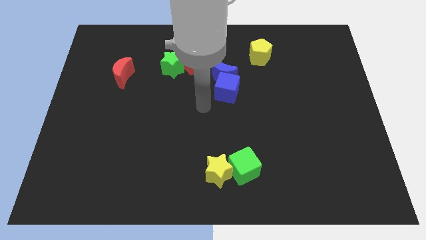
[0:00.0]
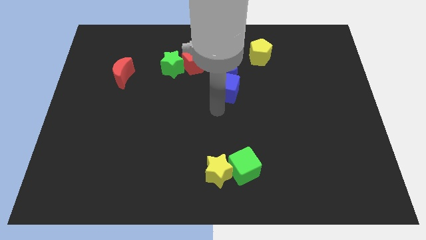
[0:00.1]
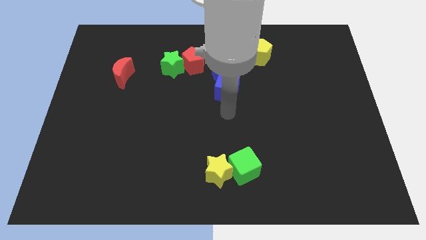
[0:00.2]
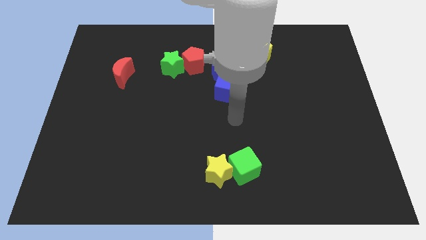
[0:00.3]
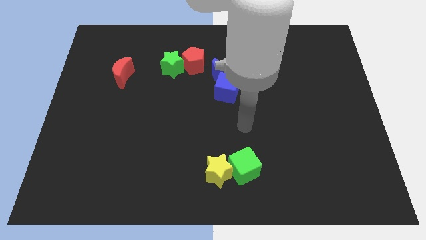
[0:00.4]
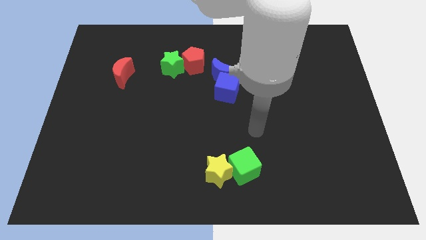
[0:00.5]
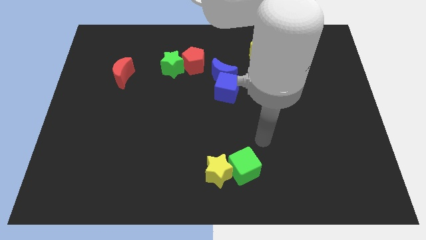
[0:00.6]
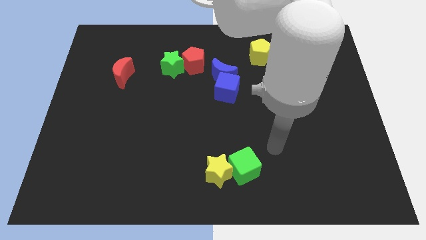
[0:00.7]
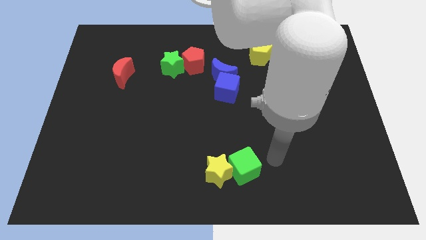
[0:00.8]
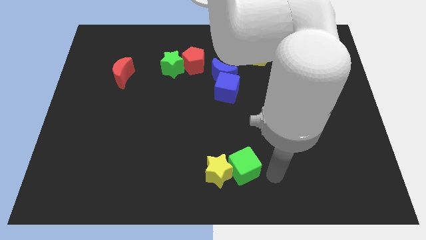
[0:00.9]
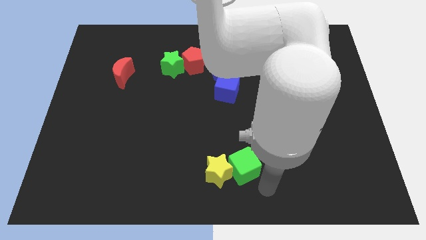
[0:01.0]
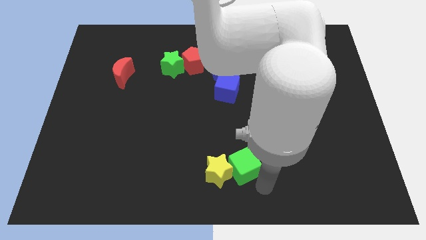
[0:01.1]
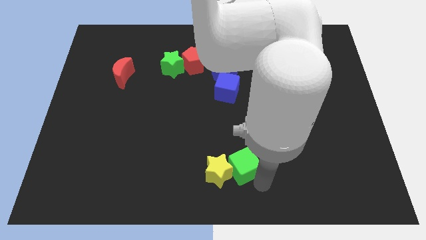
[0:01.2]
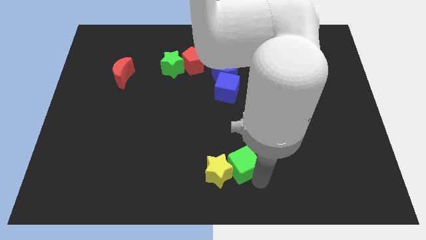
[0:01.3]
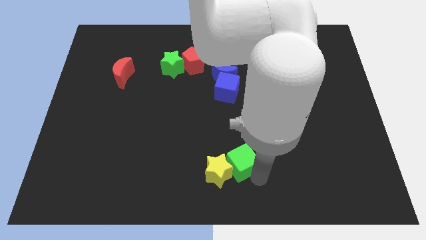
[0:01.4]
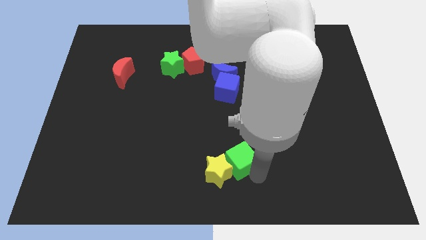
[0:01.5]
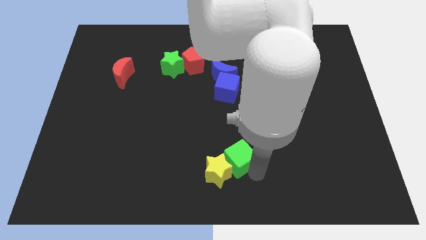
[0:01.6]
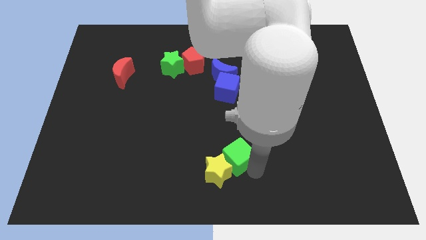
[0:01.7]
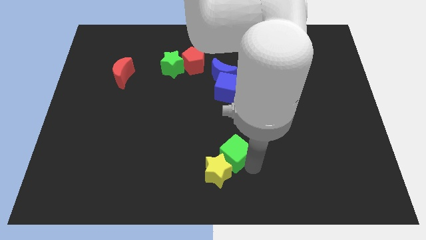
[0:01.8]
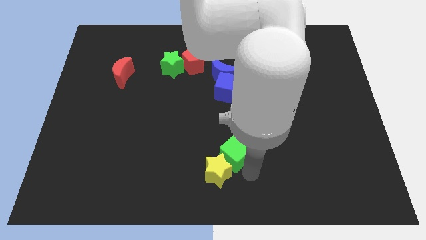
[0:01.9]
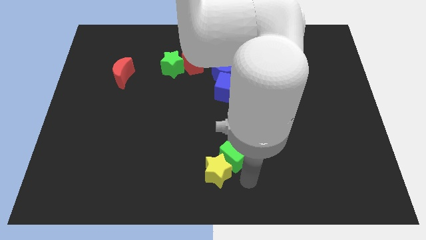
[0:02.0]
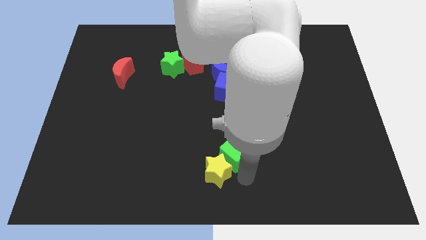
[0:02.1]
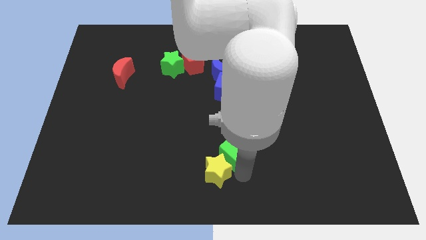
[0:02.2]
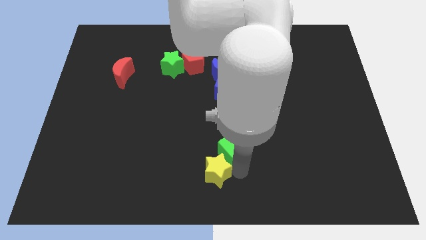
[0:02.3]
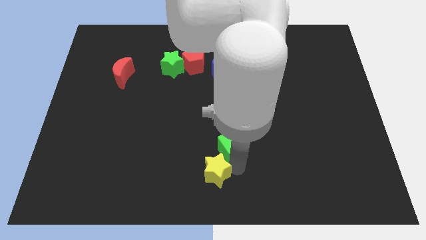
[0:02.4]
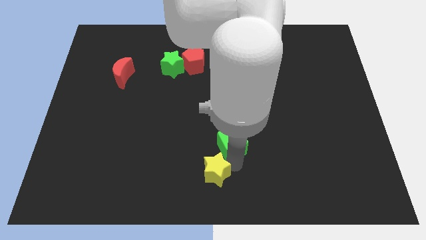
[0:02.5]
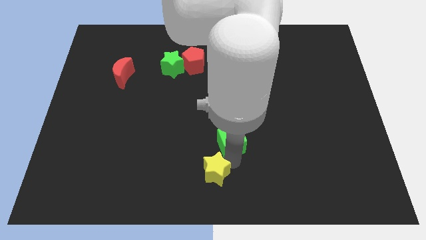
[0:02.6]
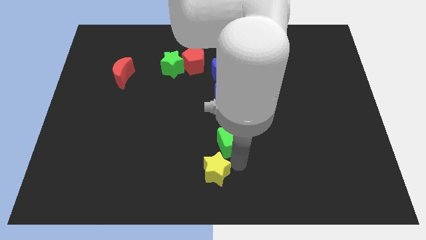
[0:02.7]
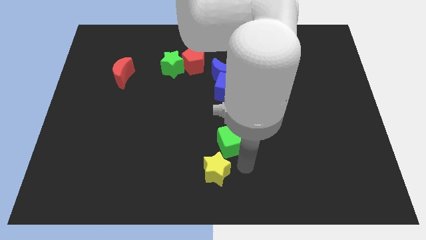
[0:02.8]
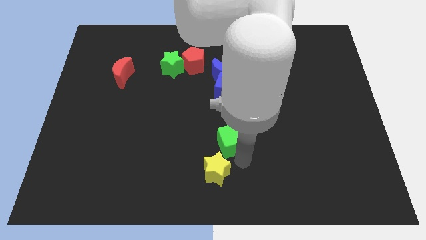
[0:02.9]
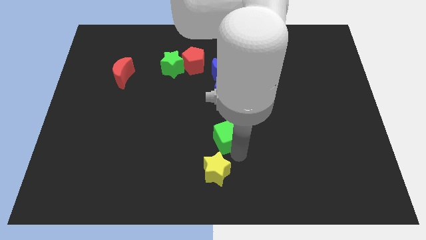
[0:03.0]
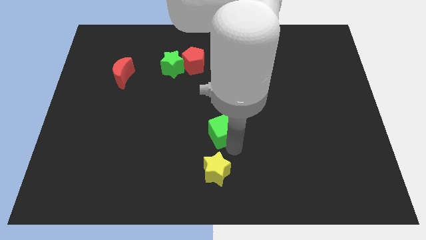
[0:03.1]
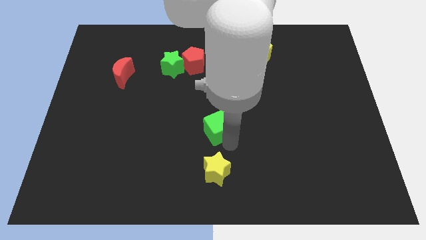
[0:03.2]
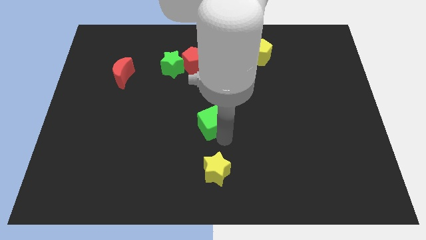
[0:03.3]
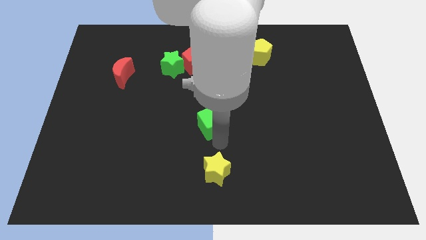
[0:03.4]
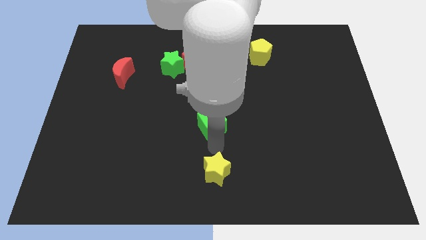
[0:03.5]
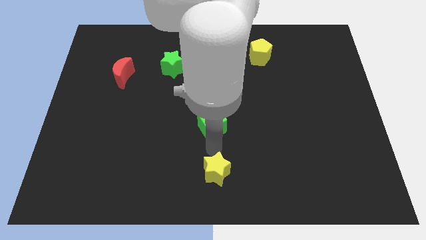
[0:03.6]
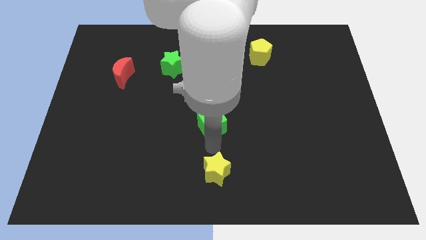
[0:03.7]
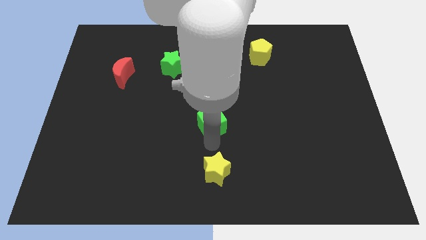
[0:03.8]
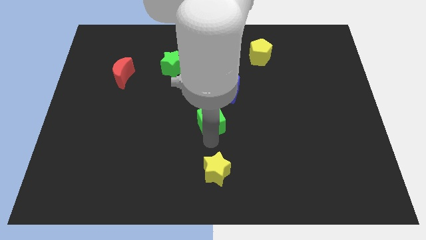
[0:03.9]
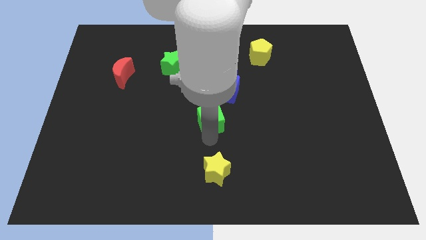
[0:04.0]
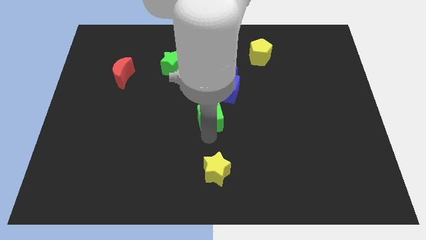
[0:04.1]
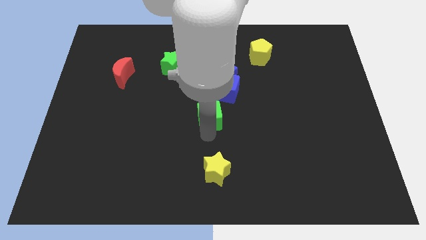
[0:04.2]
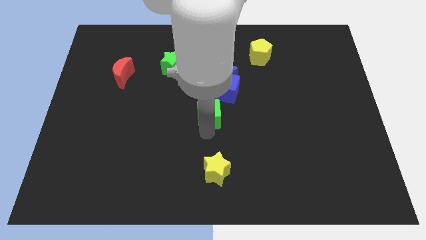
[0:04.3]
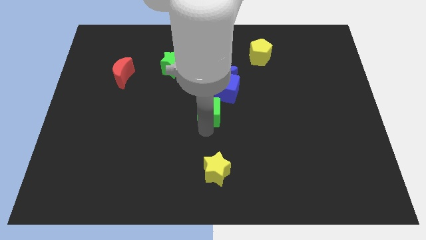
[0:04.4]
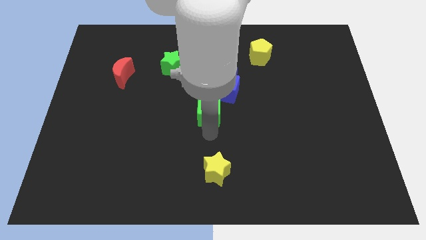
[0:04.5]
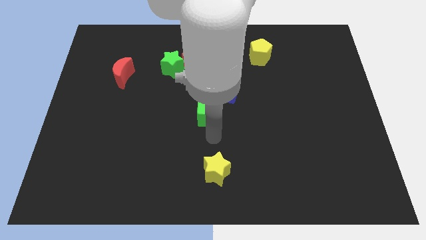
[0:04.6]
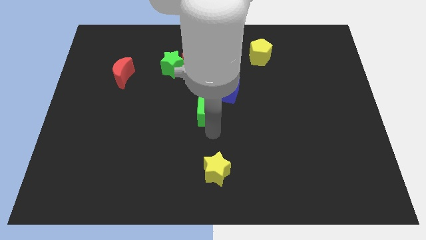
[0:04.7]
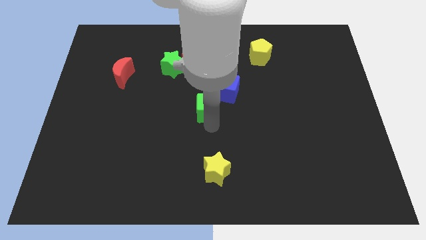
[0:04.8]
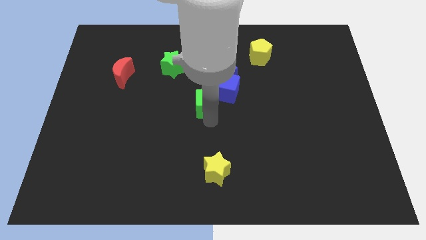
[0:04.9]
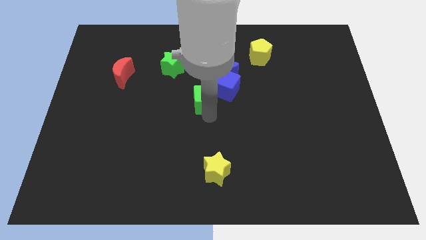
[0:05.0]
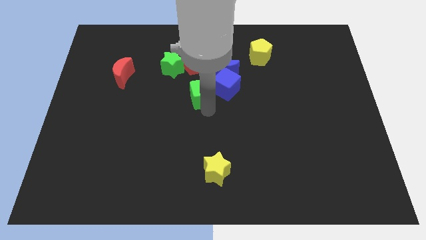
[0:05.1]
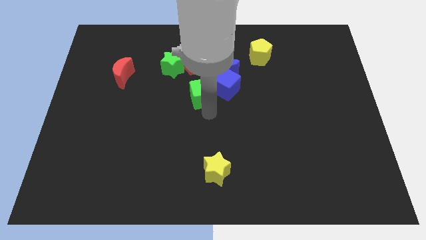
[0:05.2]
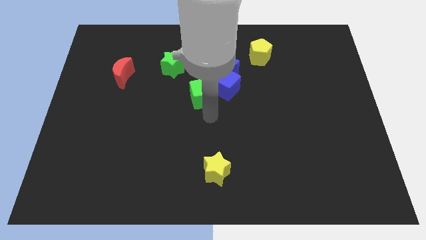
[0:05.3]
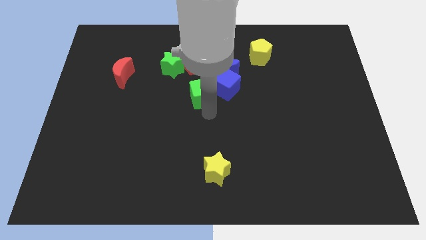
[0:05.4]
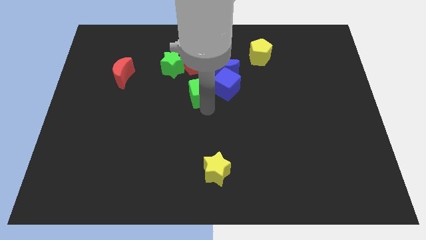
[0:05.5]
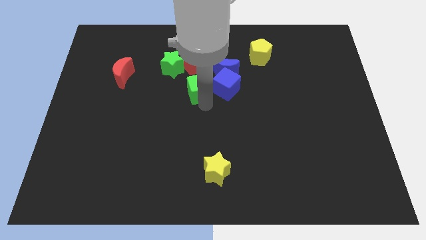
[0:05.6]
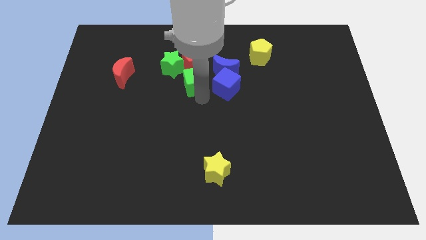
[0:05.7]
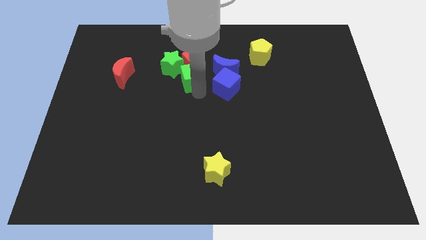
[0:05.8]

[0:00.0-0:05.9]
push the green cube towards the red pentagon

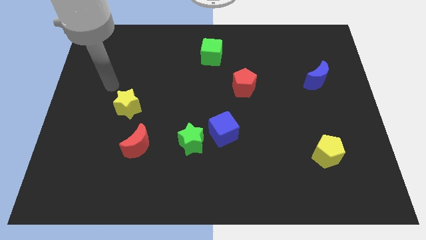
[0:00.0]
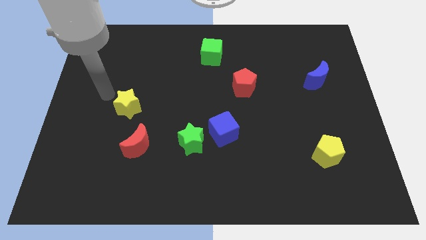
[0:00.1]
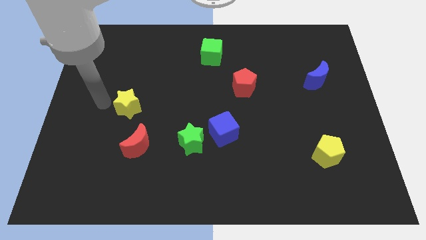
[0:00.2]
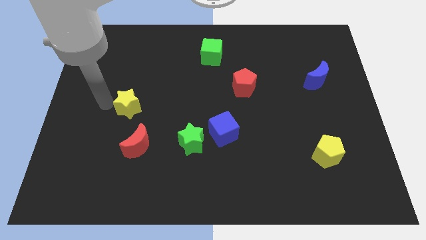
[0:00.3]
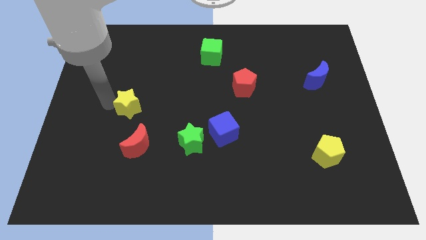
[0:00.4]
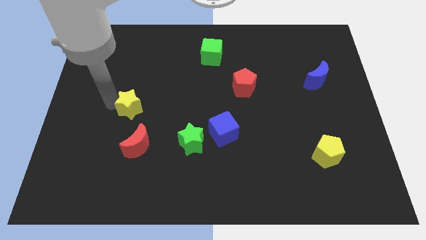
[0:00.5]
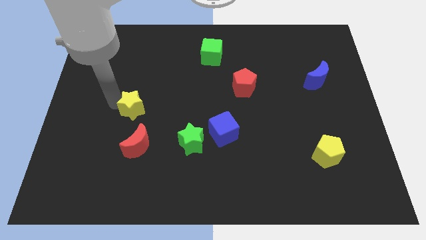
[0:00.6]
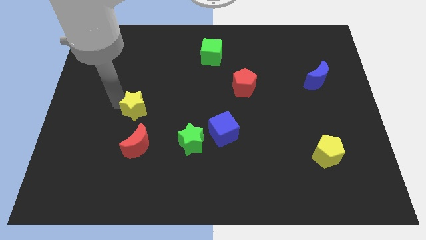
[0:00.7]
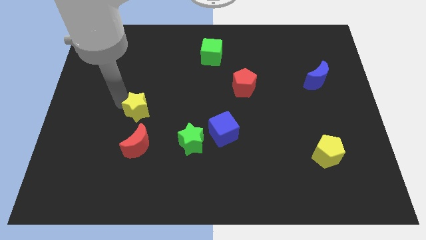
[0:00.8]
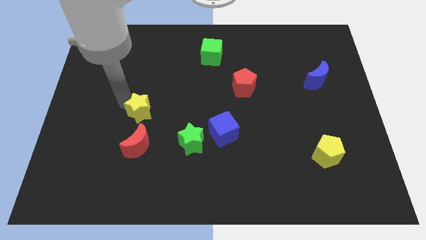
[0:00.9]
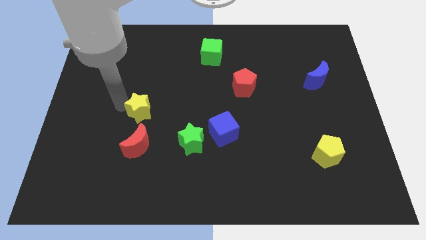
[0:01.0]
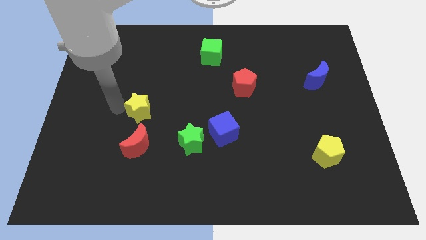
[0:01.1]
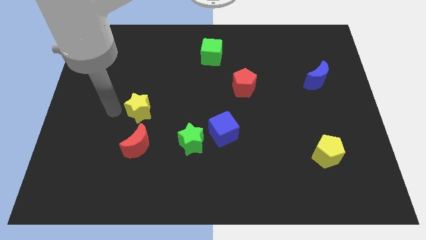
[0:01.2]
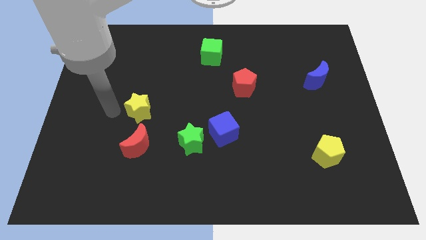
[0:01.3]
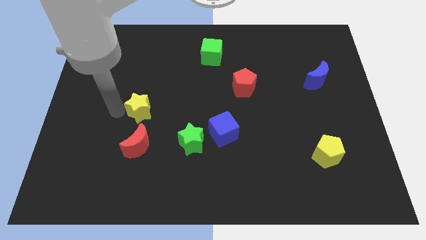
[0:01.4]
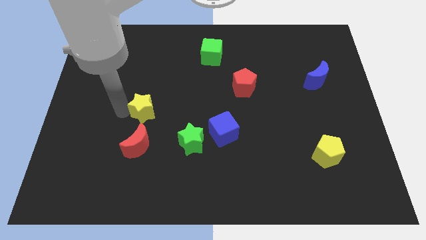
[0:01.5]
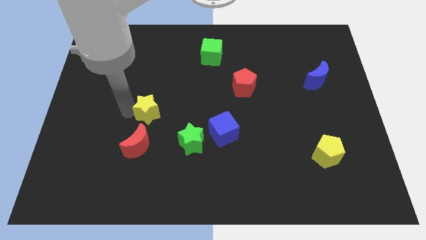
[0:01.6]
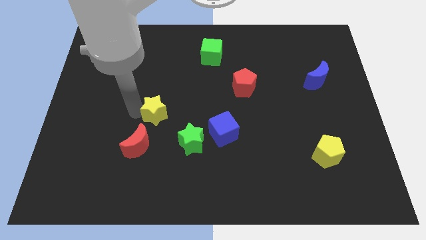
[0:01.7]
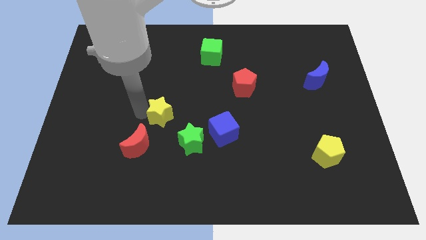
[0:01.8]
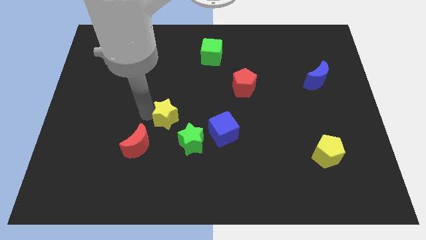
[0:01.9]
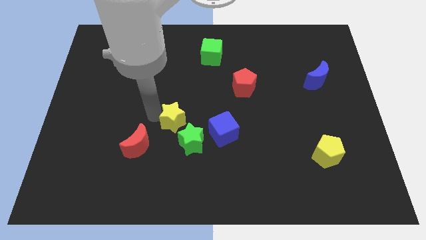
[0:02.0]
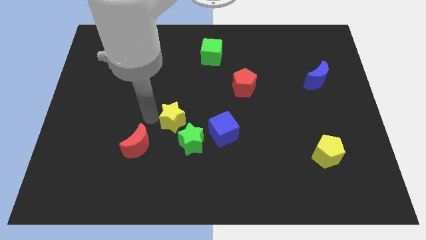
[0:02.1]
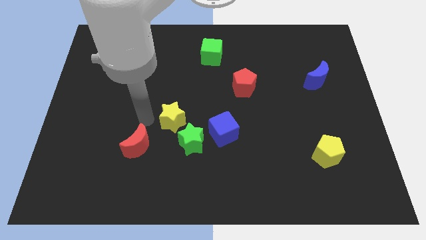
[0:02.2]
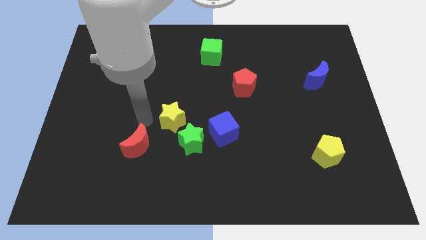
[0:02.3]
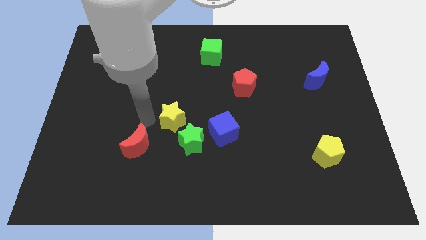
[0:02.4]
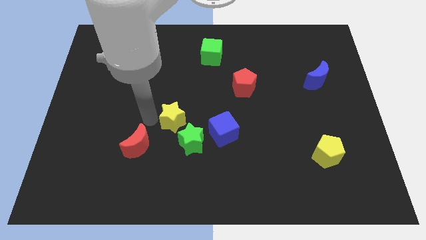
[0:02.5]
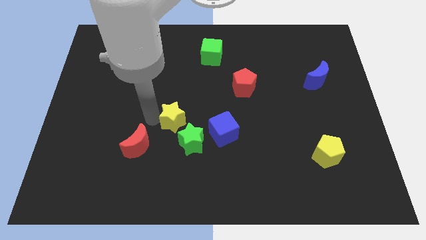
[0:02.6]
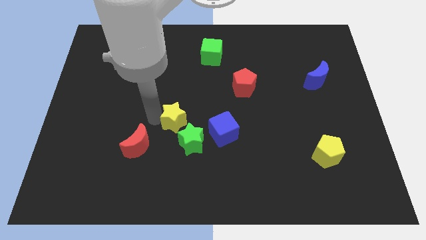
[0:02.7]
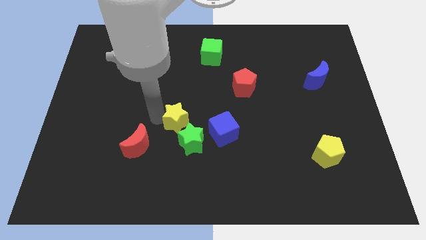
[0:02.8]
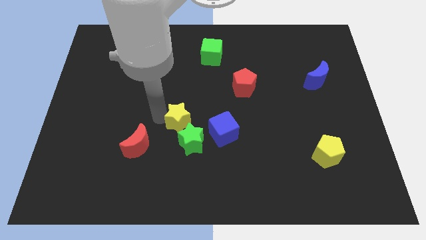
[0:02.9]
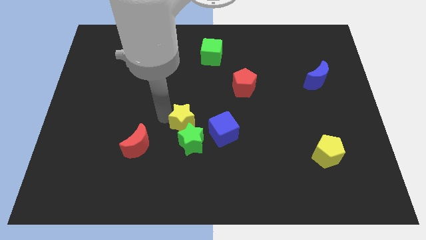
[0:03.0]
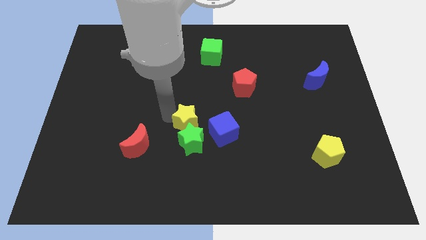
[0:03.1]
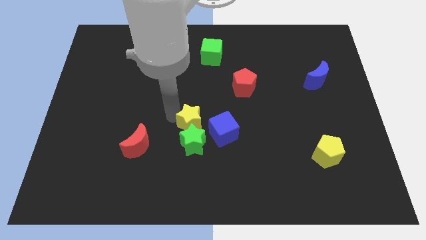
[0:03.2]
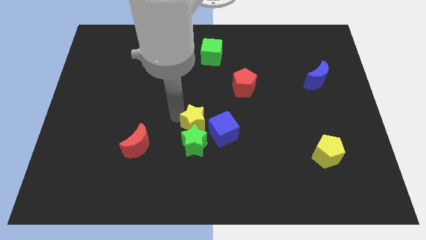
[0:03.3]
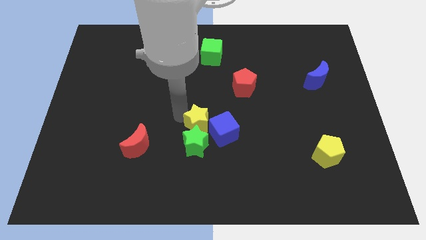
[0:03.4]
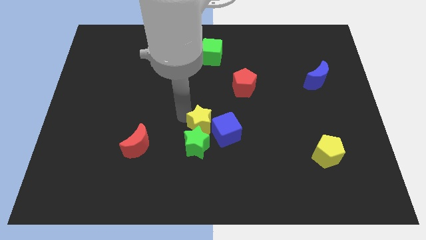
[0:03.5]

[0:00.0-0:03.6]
put the yellow star next to the blue cube
